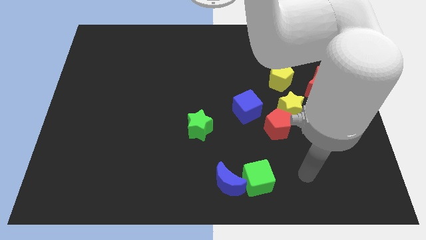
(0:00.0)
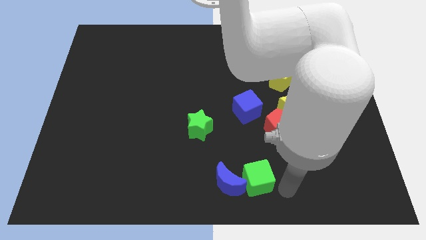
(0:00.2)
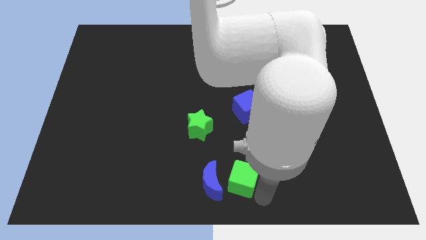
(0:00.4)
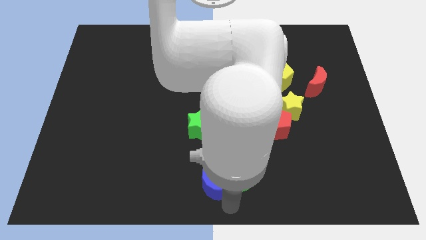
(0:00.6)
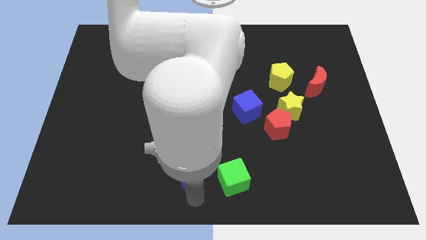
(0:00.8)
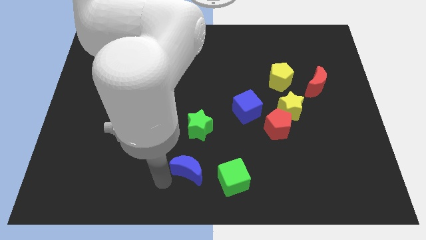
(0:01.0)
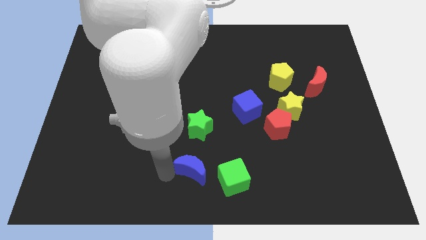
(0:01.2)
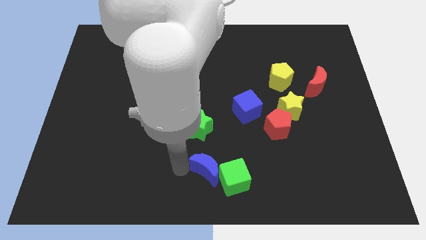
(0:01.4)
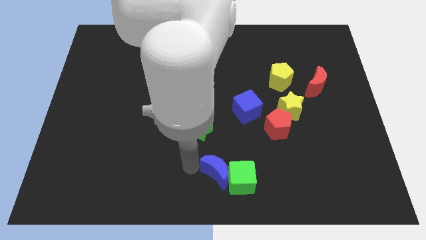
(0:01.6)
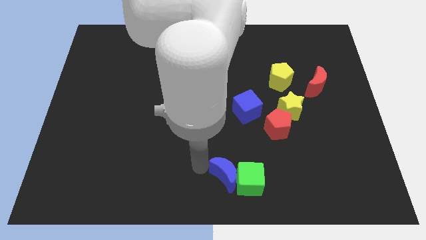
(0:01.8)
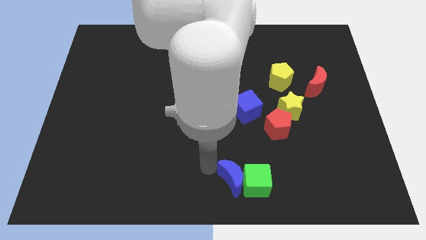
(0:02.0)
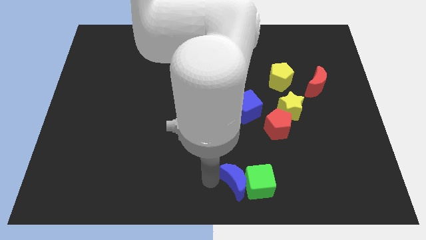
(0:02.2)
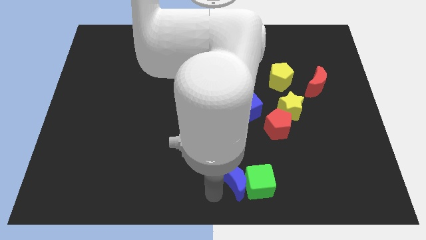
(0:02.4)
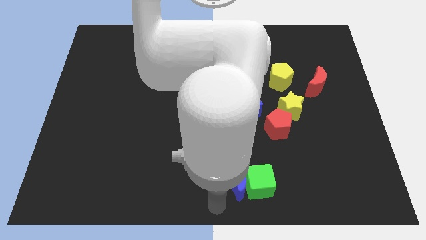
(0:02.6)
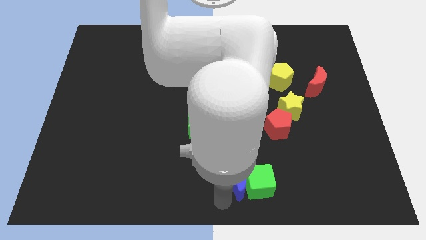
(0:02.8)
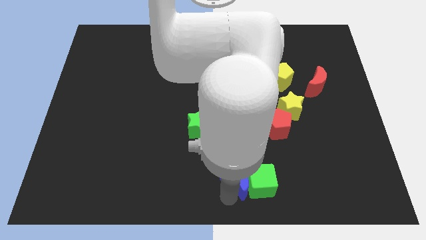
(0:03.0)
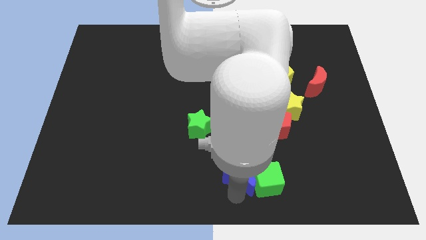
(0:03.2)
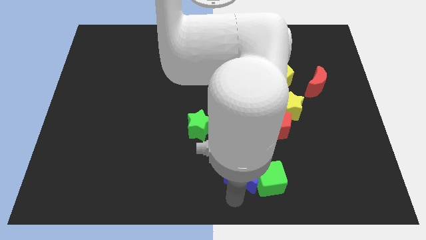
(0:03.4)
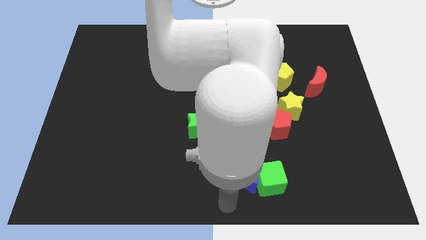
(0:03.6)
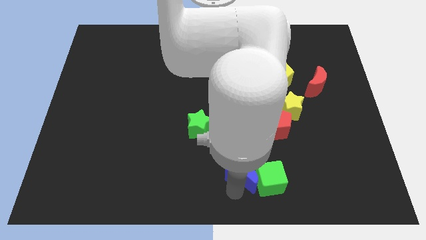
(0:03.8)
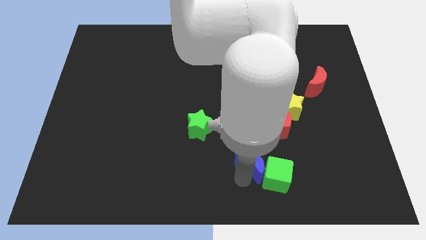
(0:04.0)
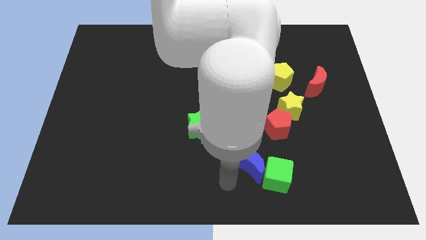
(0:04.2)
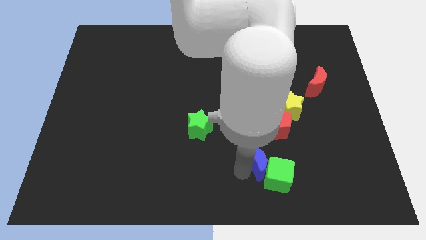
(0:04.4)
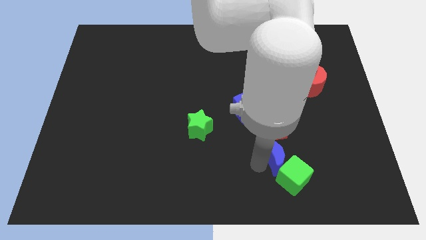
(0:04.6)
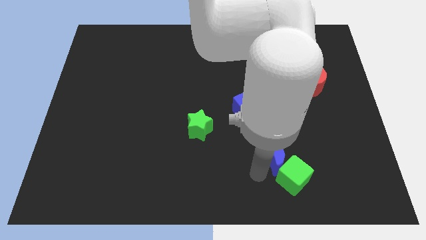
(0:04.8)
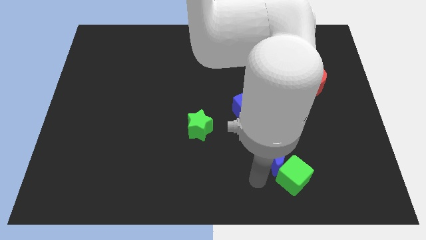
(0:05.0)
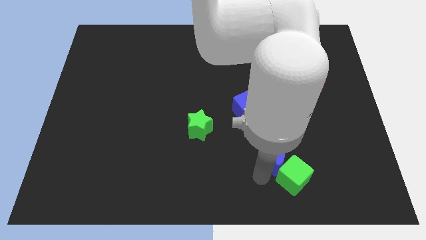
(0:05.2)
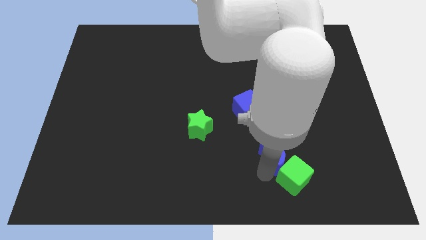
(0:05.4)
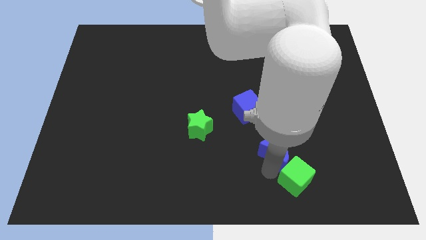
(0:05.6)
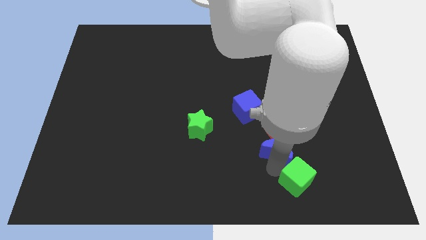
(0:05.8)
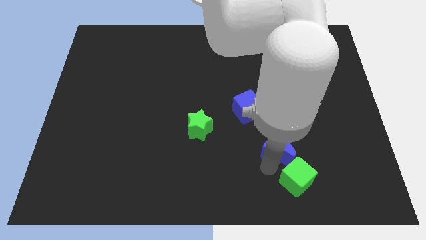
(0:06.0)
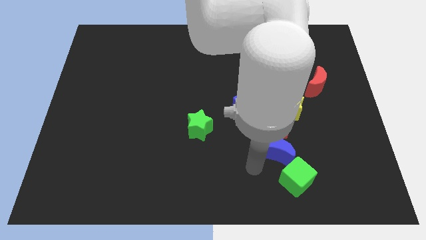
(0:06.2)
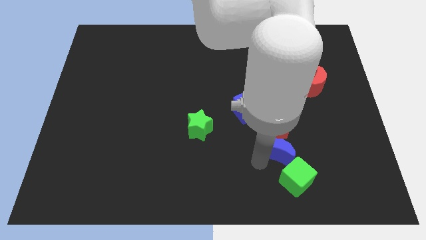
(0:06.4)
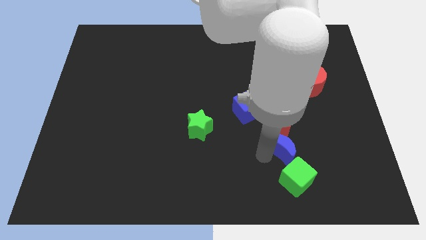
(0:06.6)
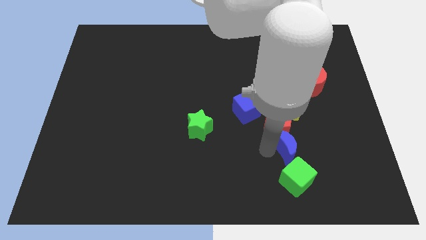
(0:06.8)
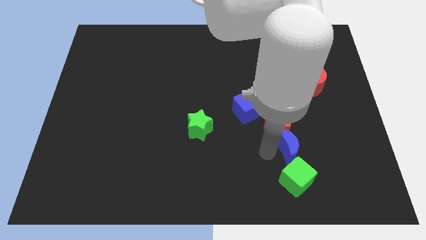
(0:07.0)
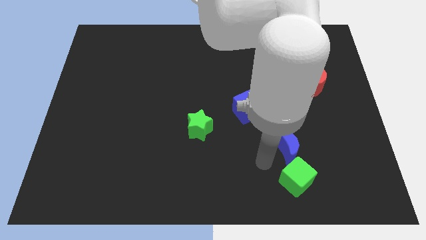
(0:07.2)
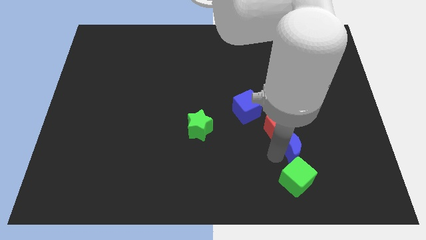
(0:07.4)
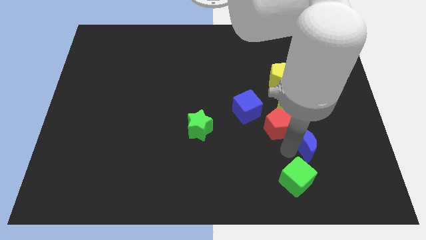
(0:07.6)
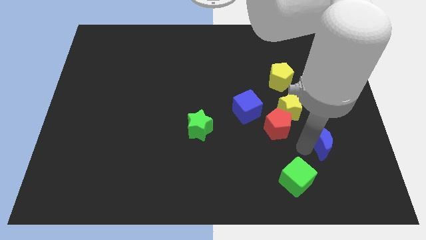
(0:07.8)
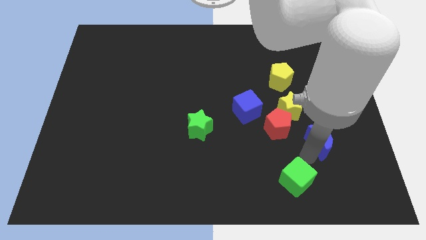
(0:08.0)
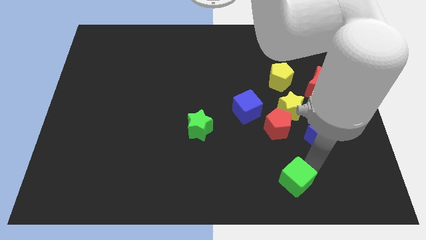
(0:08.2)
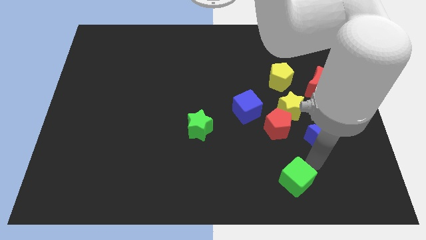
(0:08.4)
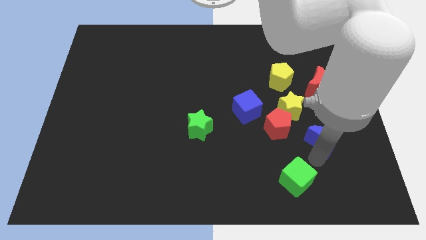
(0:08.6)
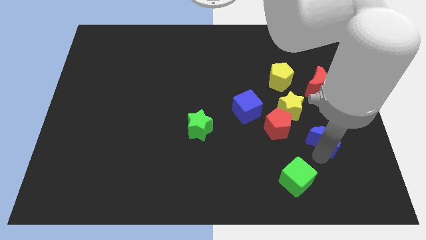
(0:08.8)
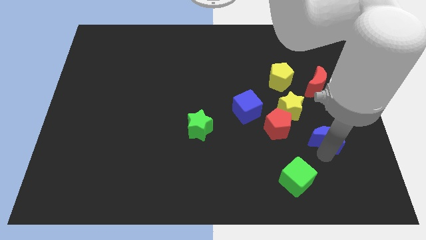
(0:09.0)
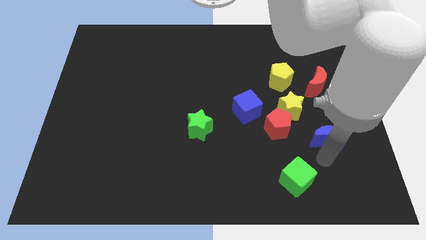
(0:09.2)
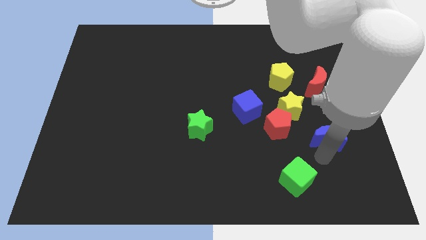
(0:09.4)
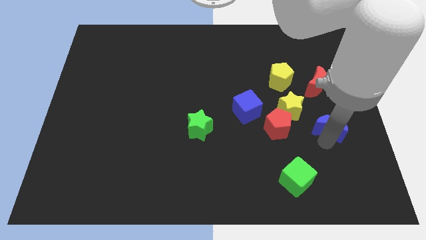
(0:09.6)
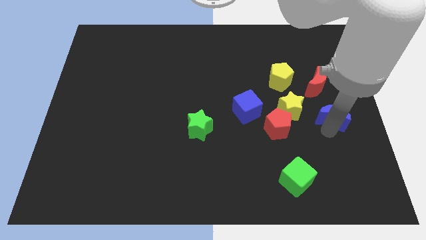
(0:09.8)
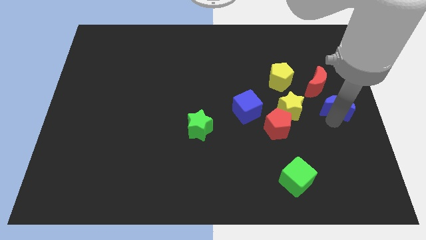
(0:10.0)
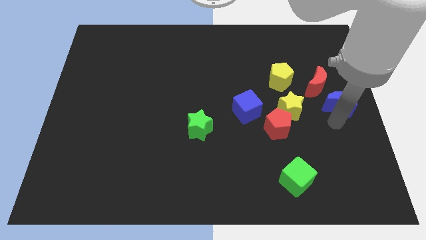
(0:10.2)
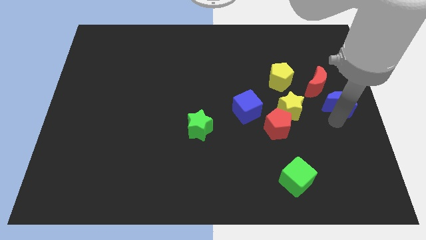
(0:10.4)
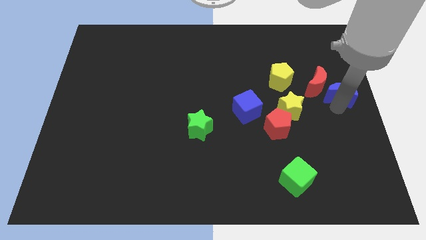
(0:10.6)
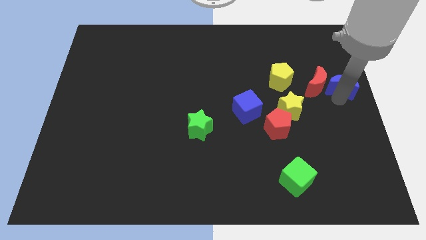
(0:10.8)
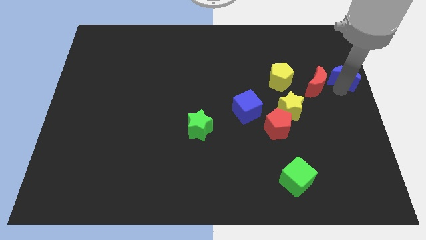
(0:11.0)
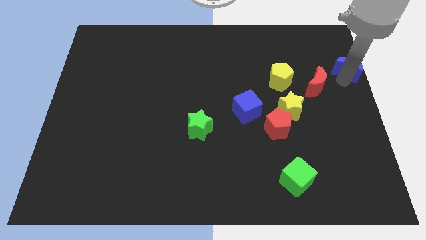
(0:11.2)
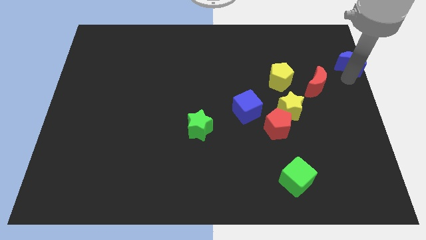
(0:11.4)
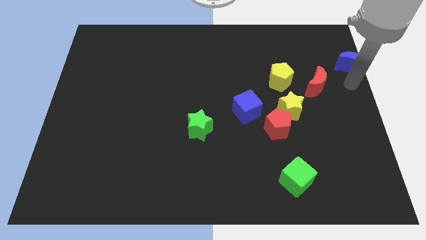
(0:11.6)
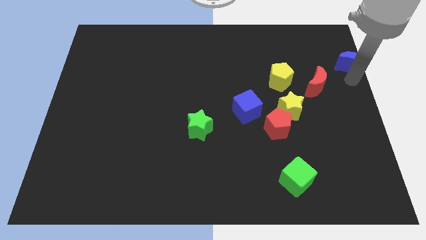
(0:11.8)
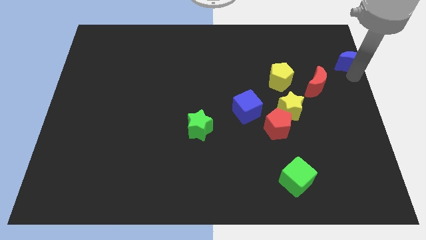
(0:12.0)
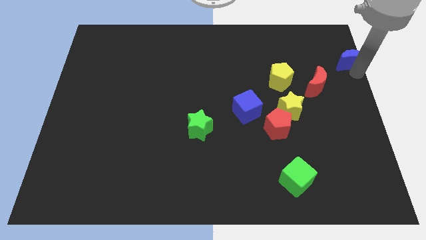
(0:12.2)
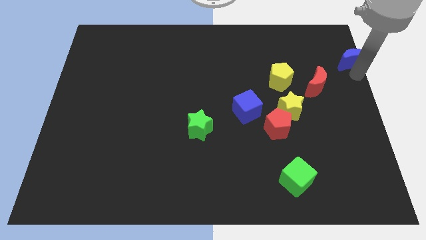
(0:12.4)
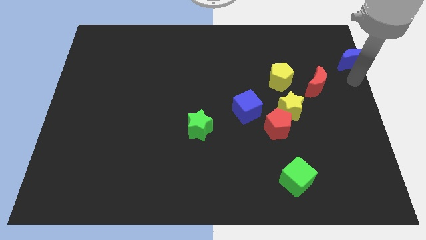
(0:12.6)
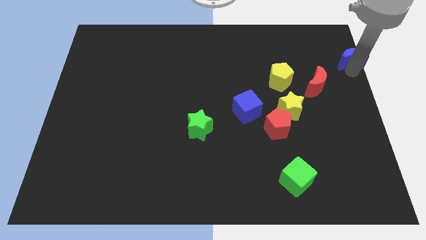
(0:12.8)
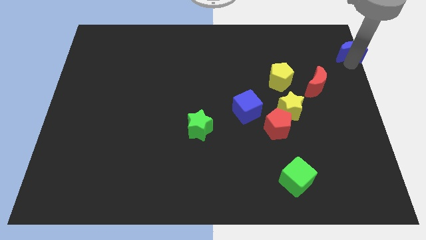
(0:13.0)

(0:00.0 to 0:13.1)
move the blue moon to the upper right corner

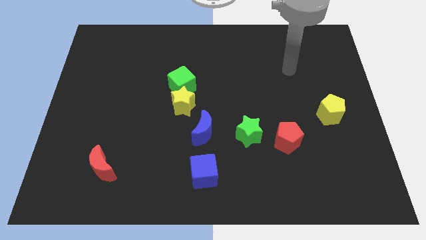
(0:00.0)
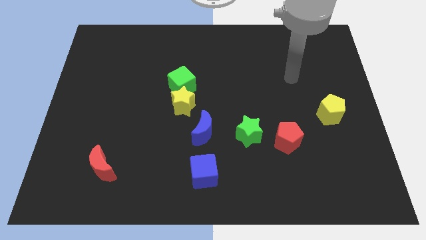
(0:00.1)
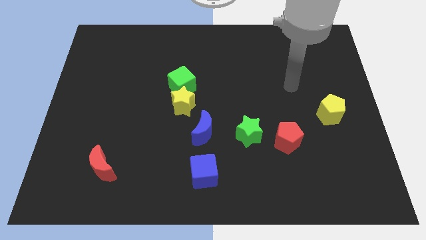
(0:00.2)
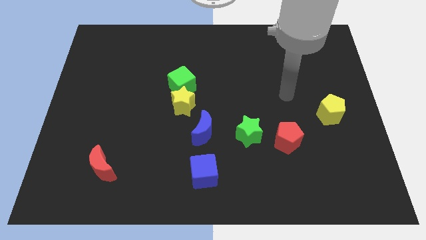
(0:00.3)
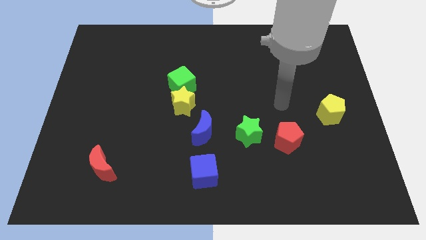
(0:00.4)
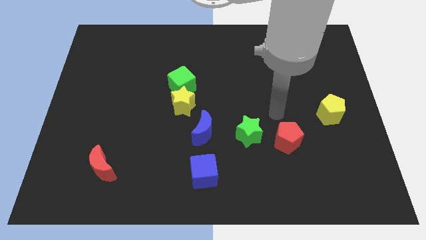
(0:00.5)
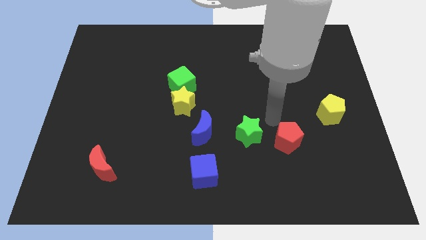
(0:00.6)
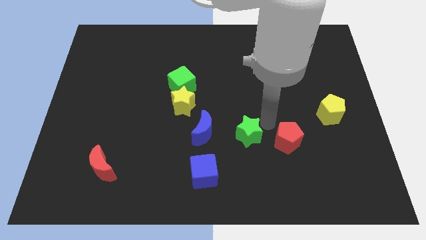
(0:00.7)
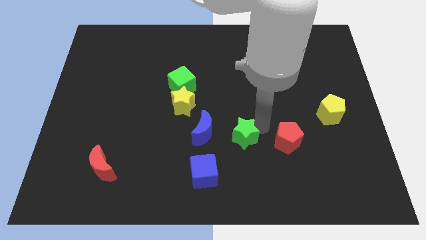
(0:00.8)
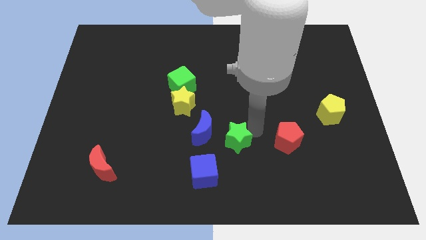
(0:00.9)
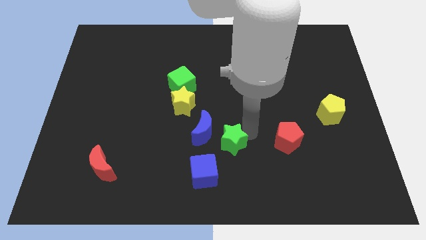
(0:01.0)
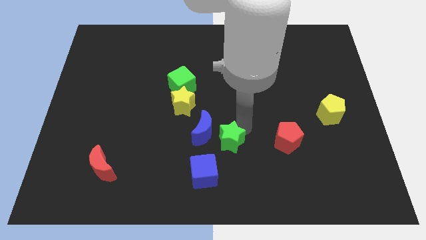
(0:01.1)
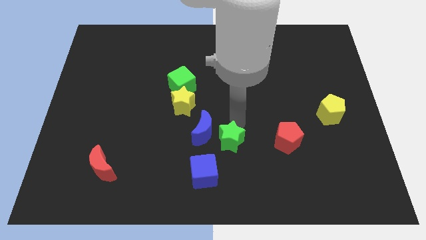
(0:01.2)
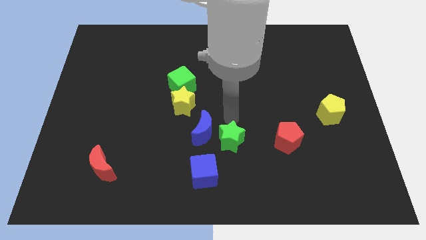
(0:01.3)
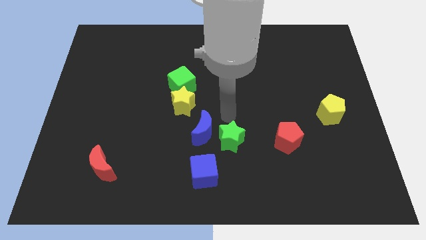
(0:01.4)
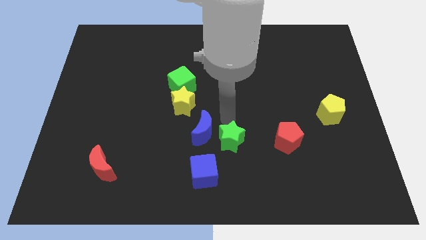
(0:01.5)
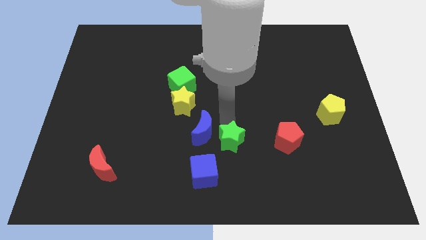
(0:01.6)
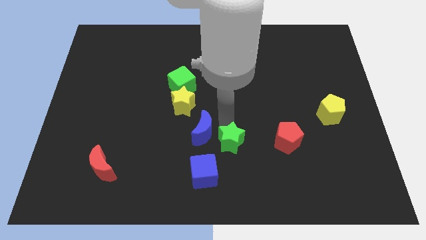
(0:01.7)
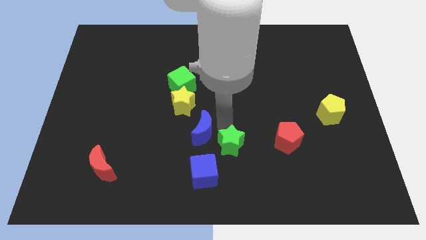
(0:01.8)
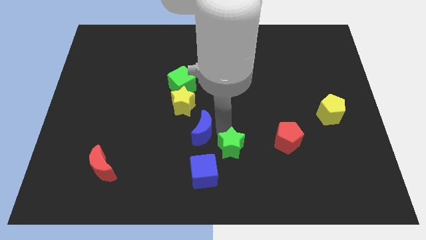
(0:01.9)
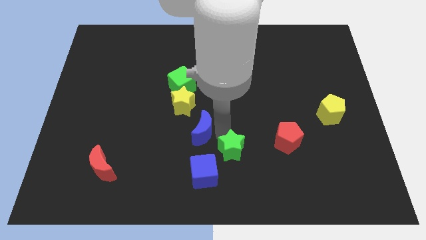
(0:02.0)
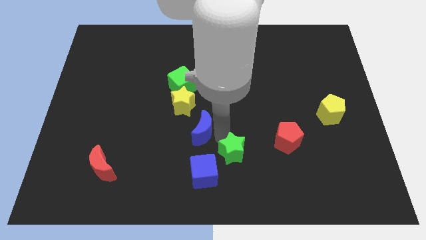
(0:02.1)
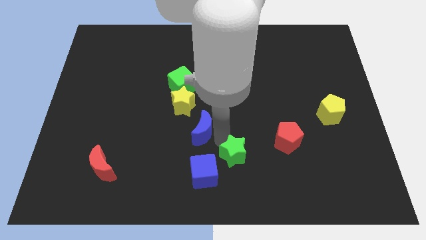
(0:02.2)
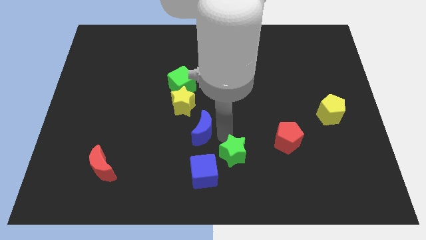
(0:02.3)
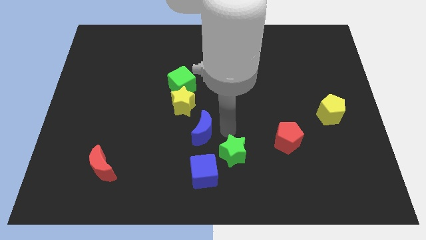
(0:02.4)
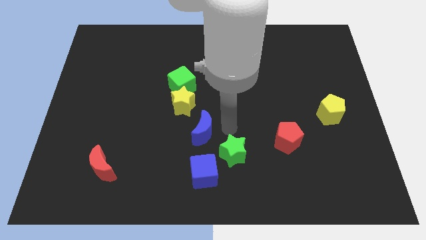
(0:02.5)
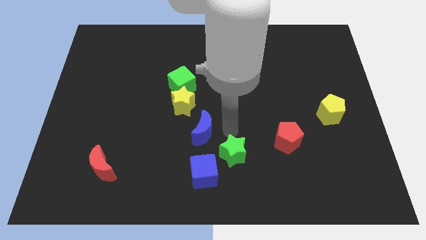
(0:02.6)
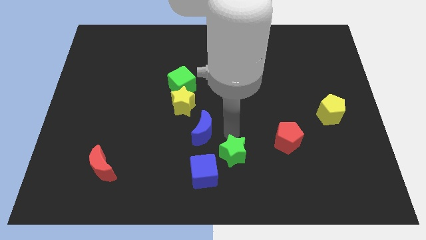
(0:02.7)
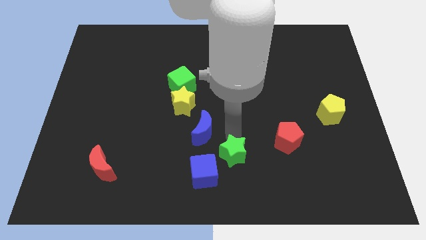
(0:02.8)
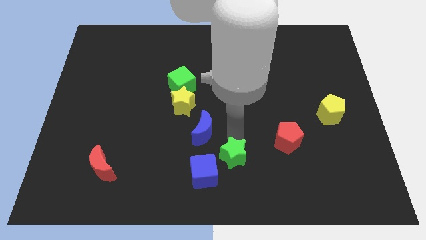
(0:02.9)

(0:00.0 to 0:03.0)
put the green star to the bottom
